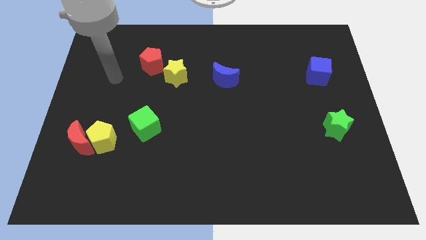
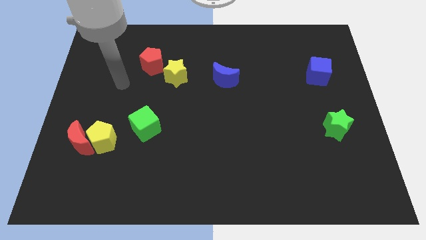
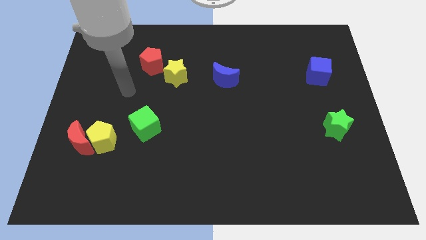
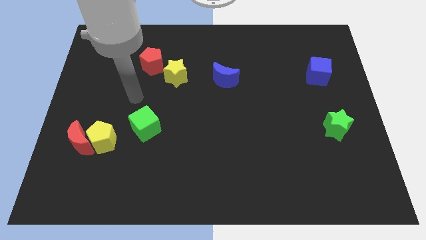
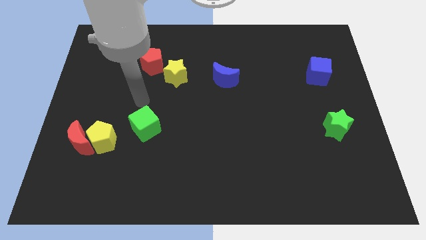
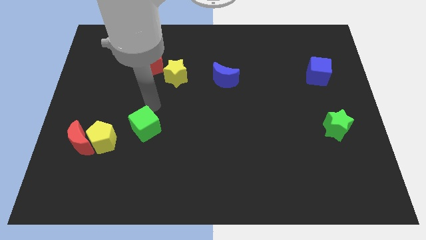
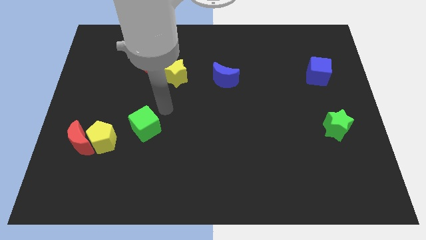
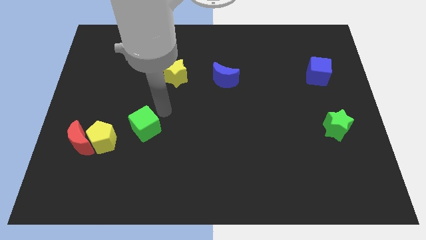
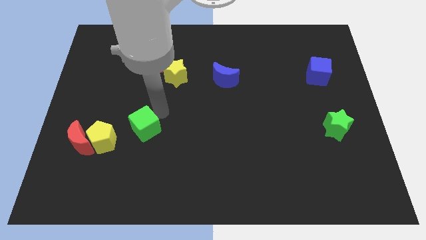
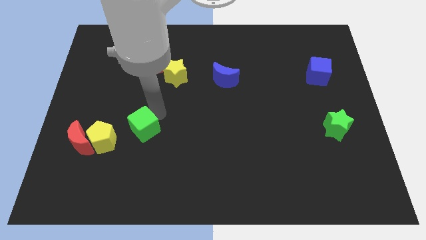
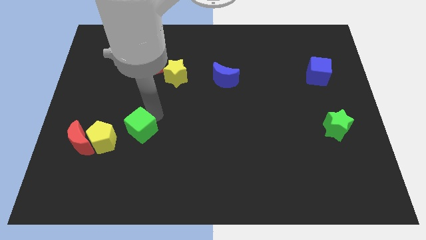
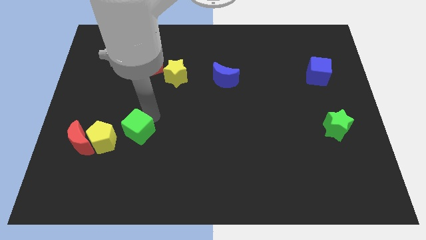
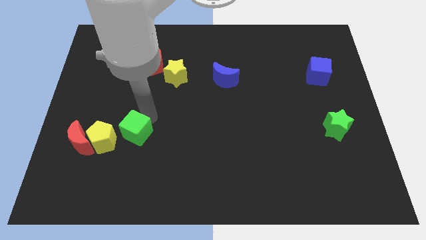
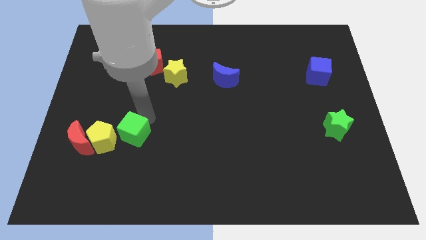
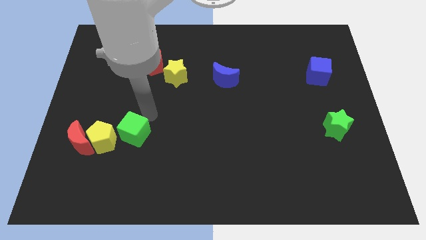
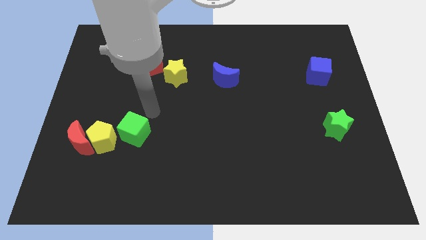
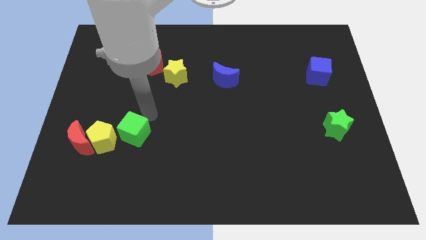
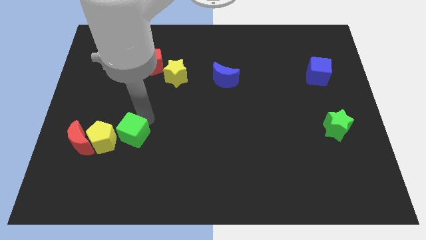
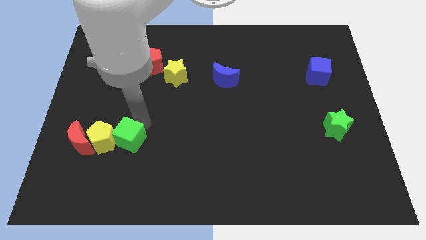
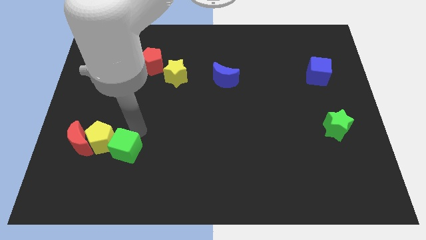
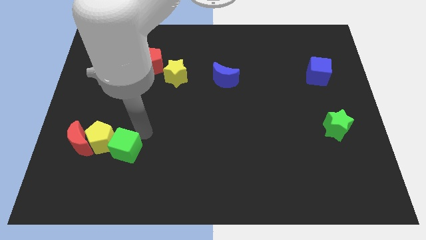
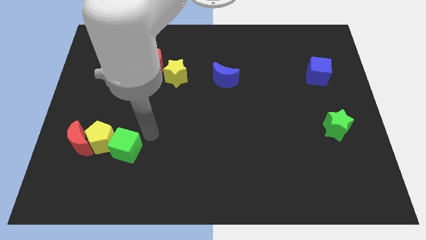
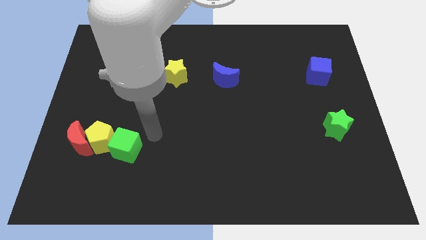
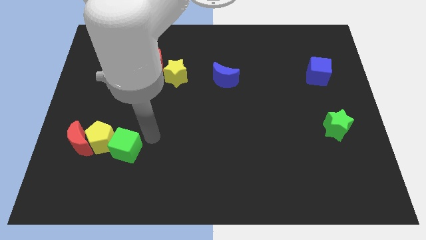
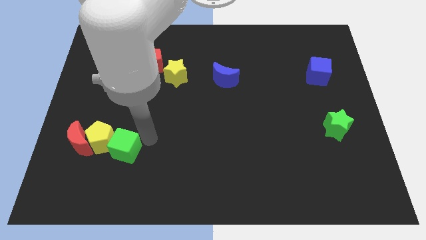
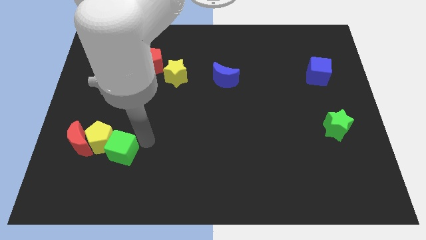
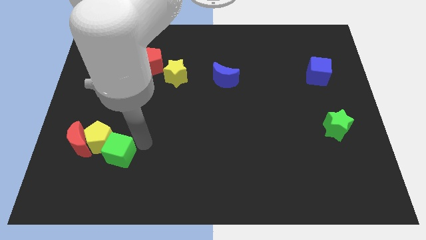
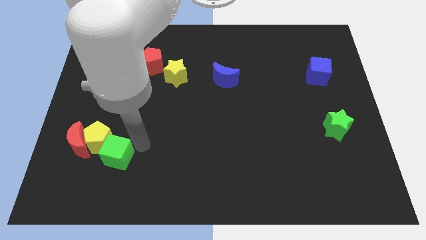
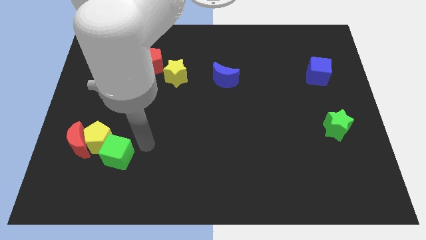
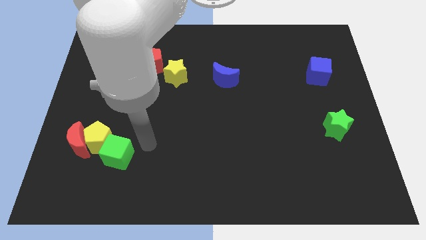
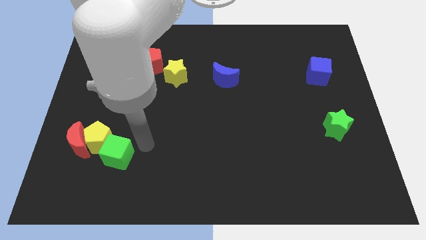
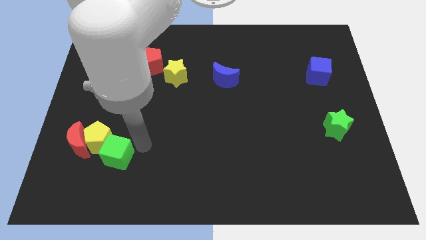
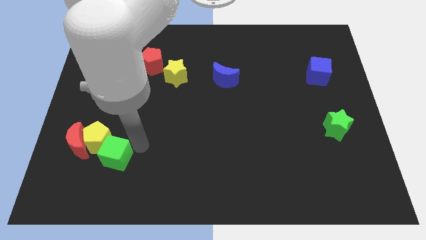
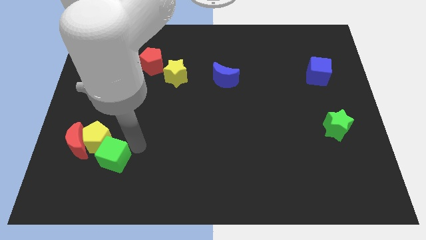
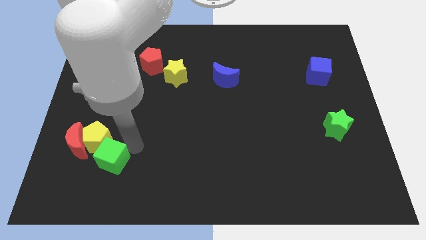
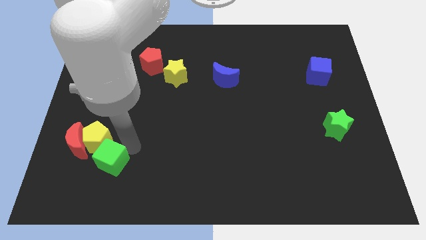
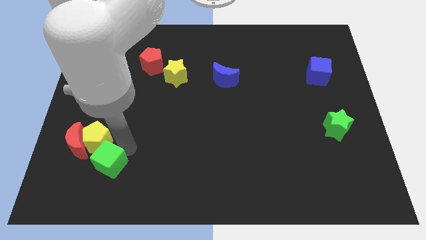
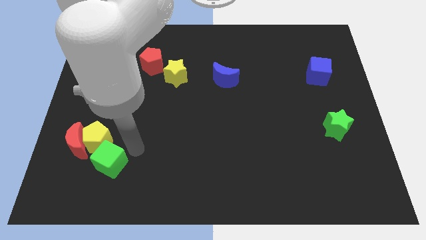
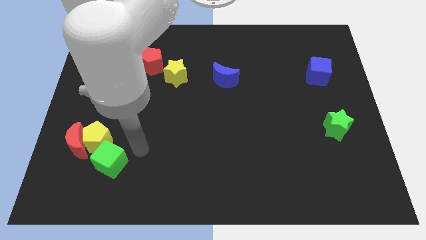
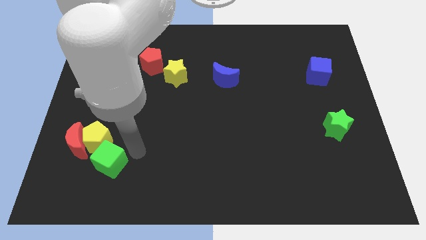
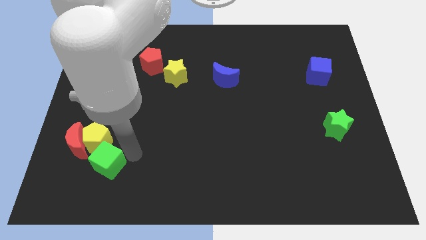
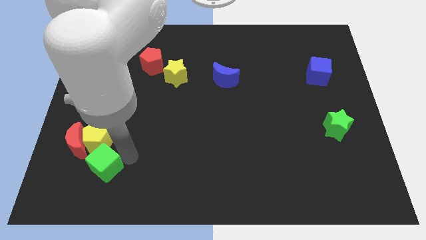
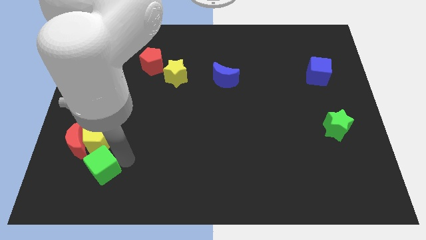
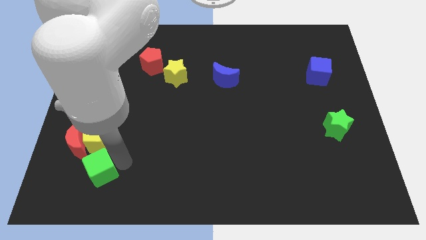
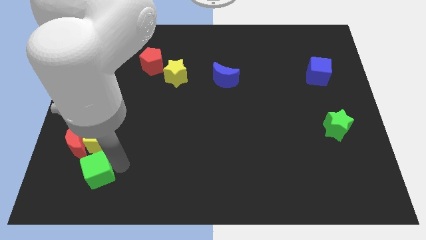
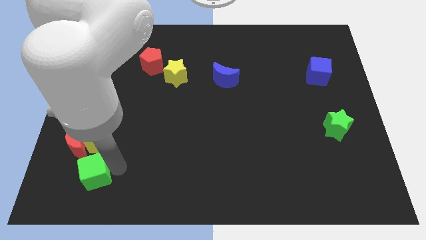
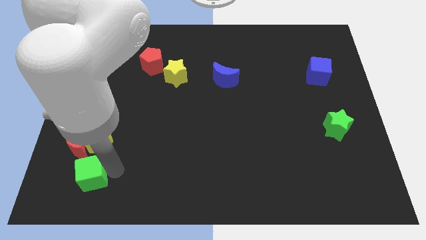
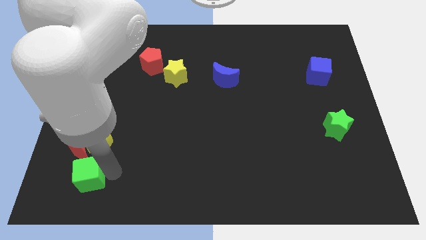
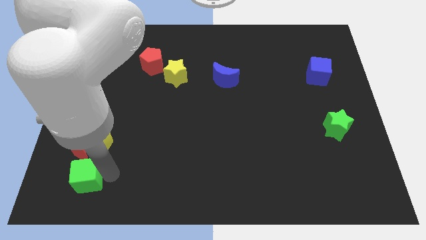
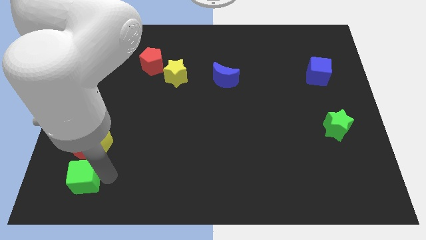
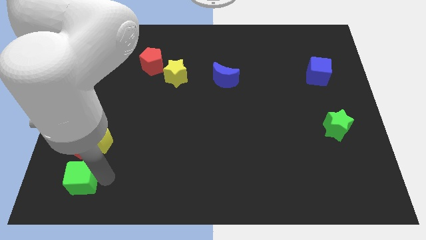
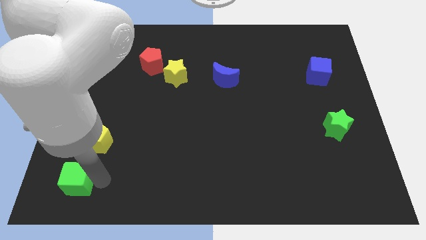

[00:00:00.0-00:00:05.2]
push the green cube to the bottom left

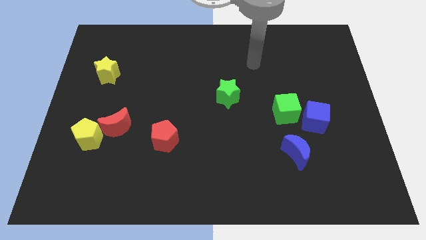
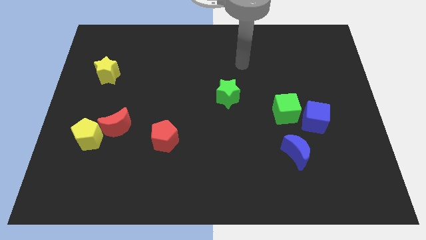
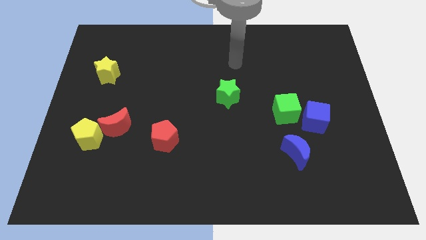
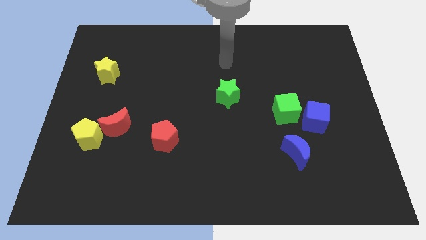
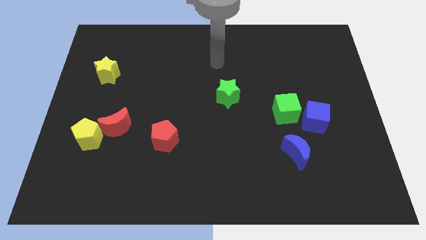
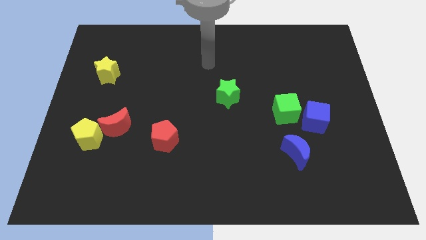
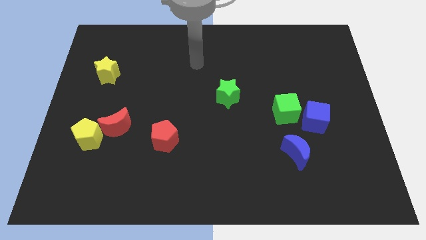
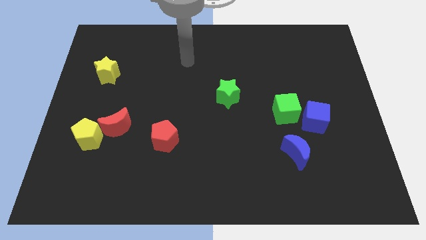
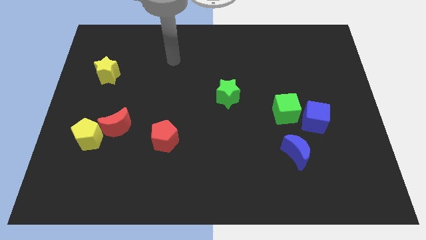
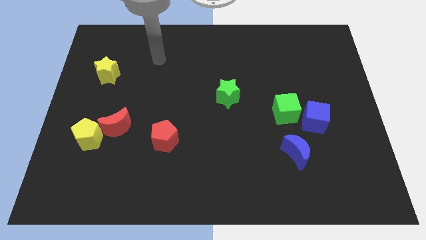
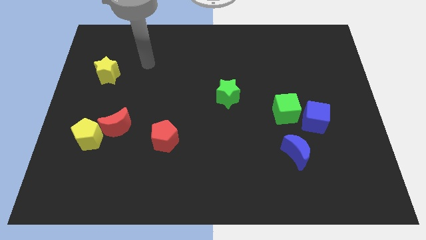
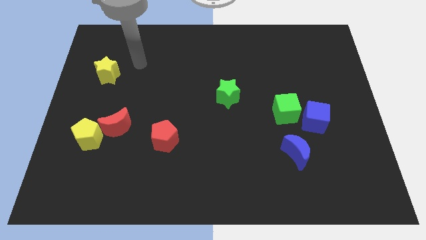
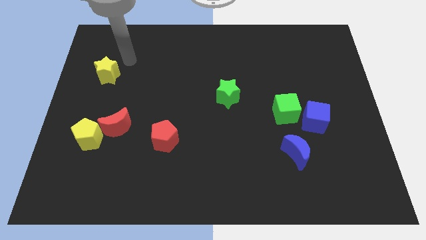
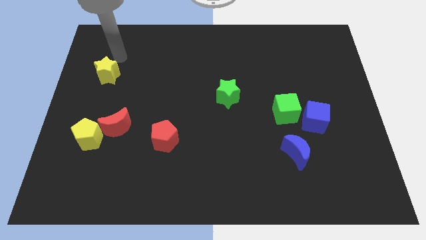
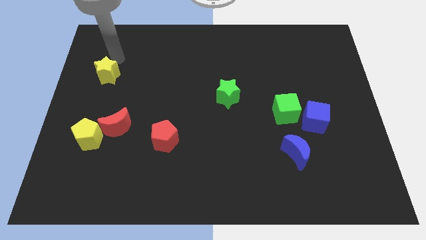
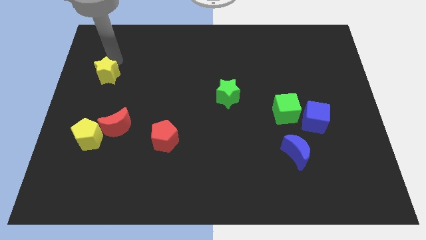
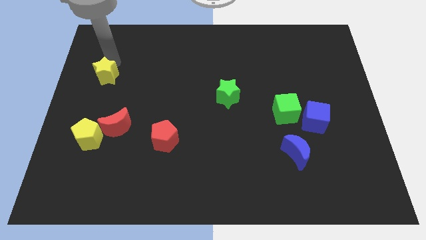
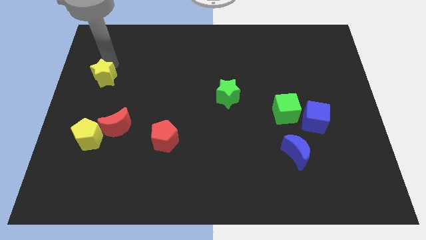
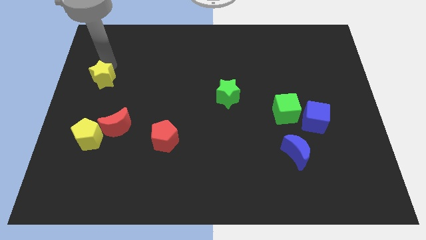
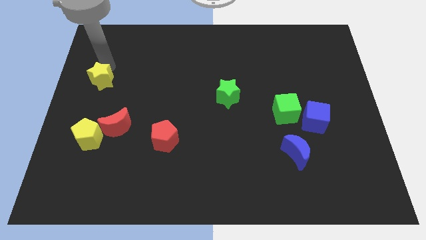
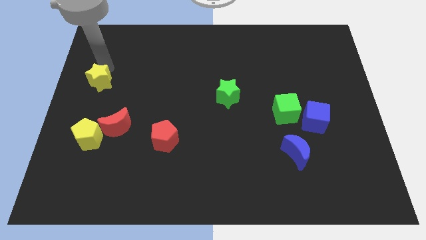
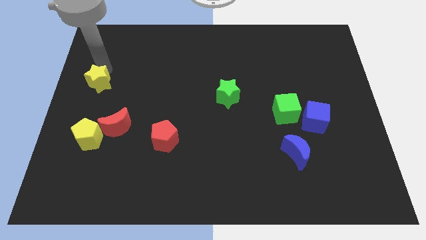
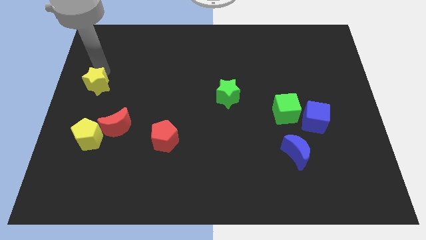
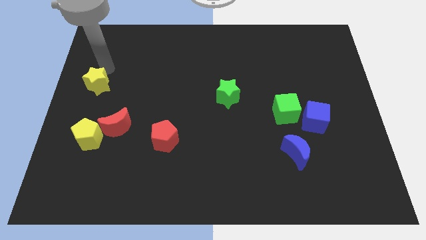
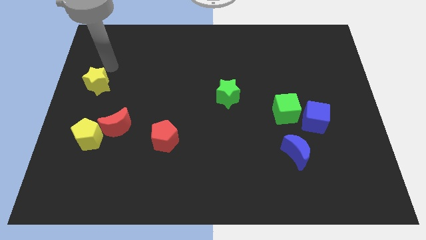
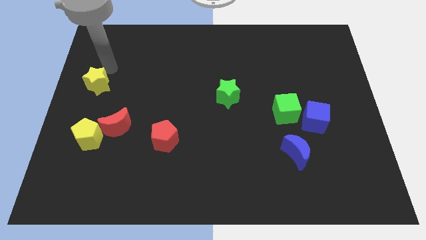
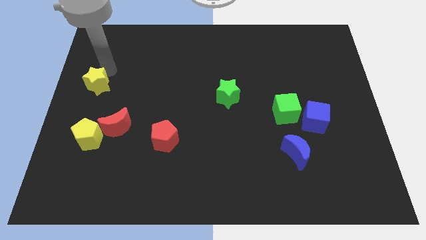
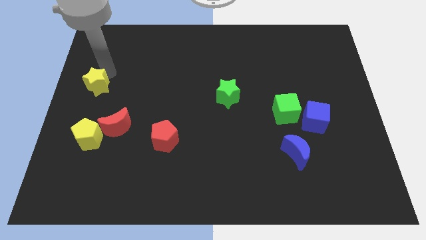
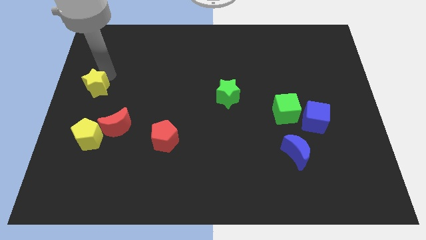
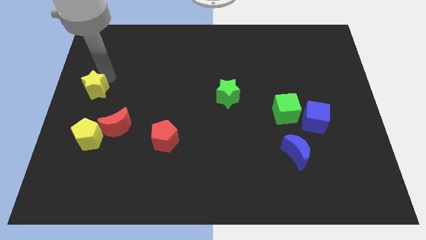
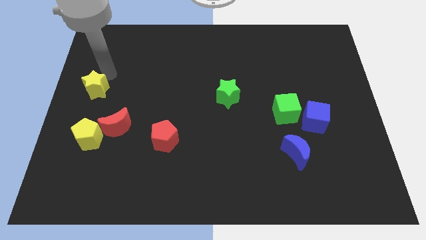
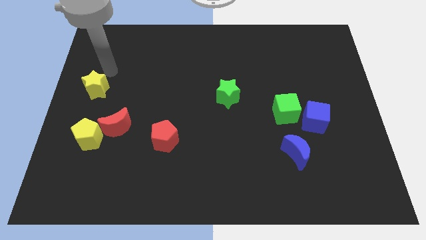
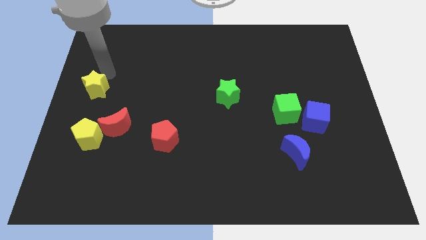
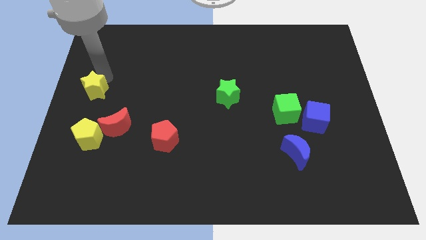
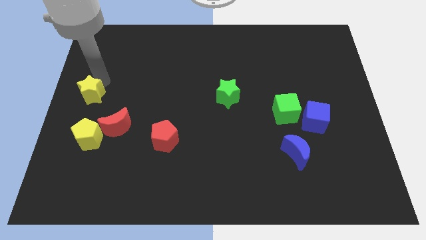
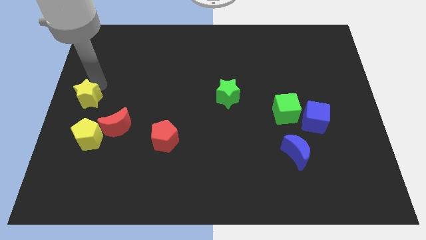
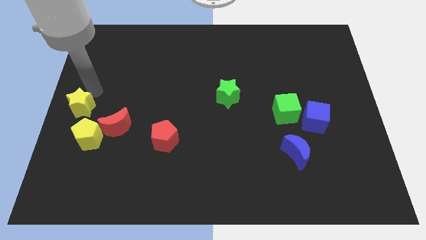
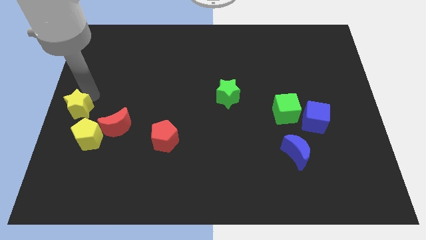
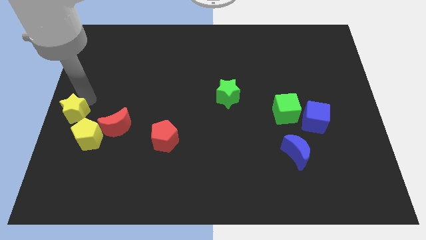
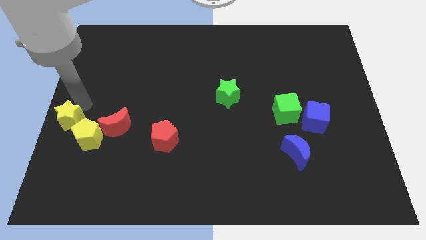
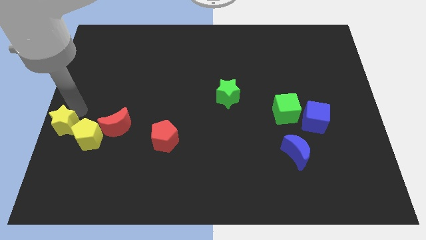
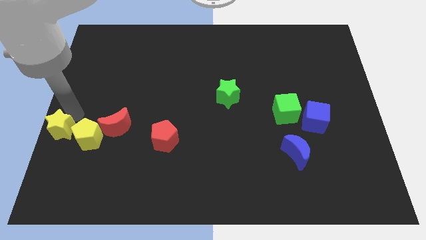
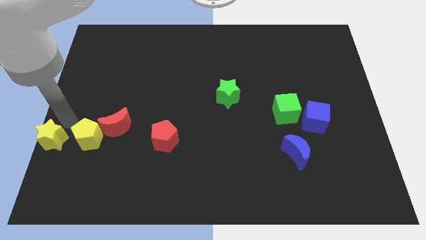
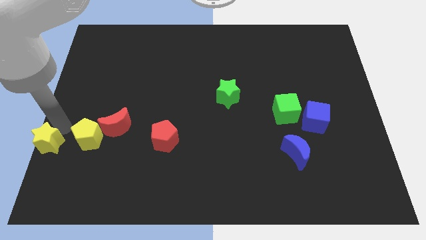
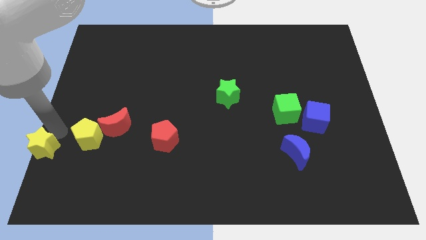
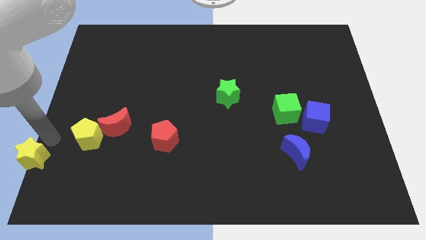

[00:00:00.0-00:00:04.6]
slide the yellow star to the bottom left corner
